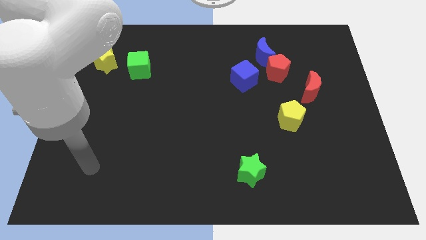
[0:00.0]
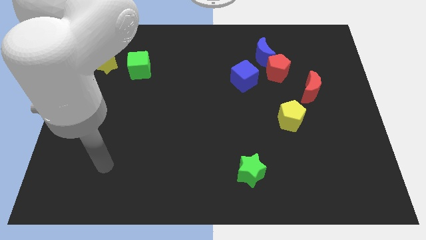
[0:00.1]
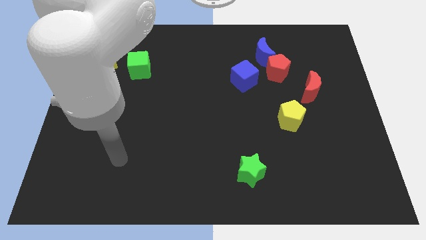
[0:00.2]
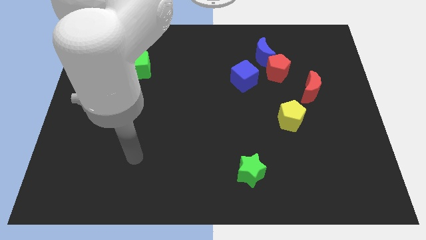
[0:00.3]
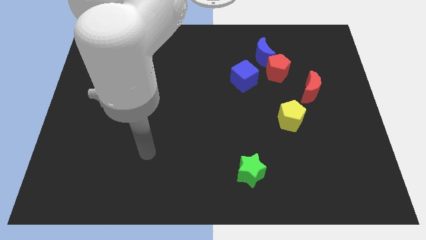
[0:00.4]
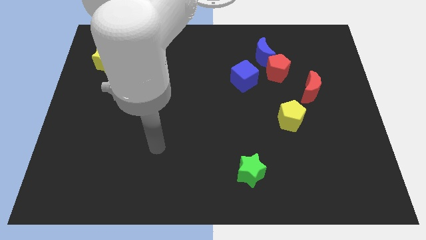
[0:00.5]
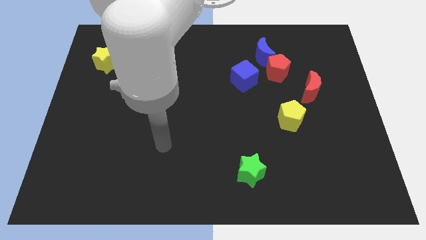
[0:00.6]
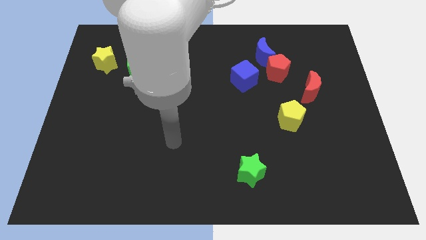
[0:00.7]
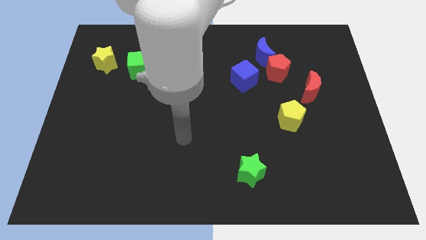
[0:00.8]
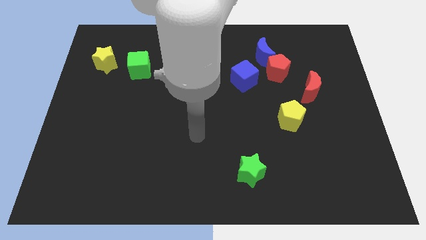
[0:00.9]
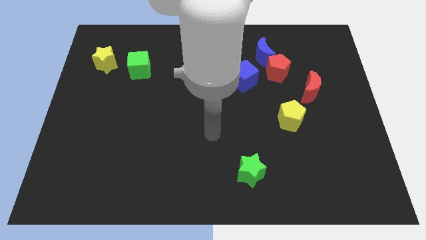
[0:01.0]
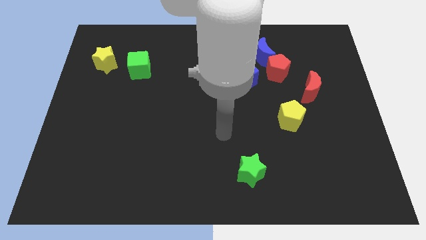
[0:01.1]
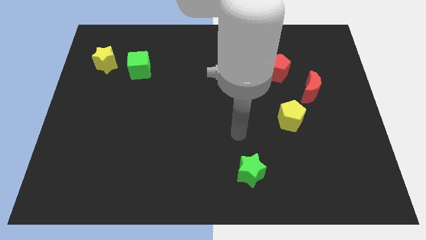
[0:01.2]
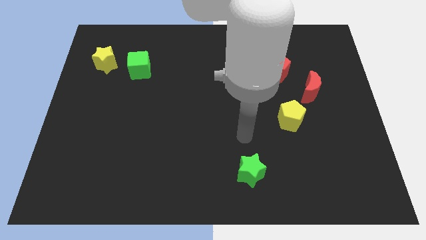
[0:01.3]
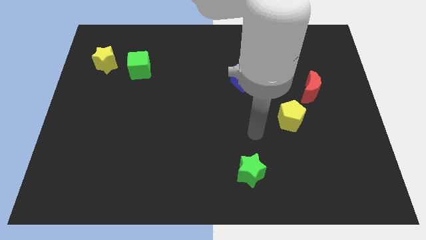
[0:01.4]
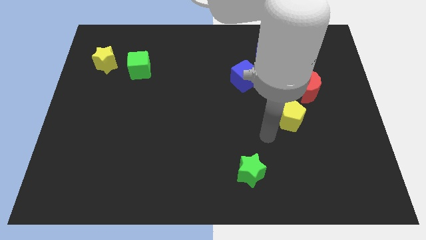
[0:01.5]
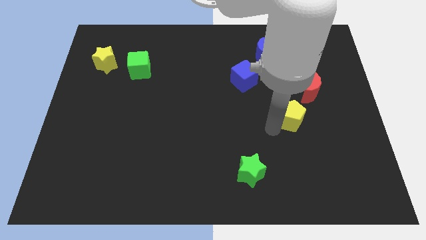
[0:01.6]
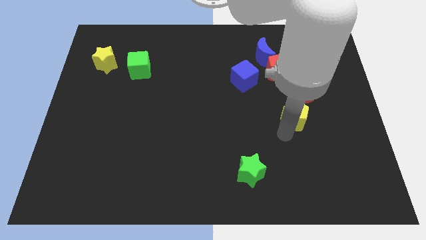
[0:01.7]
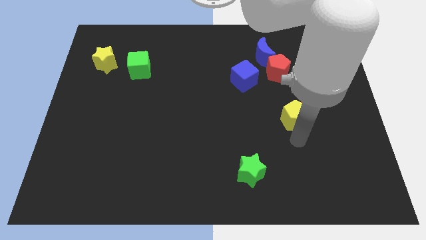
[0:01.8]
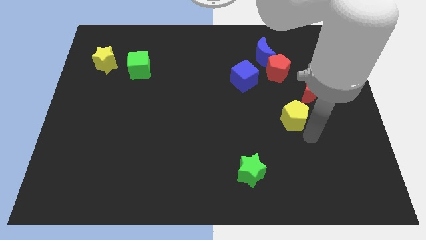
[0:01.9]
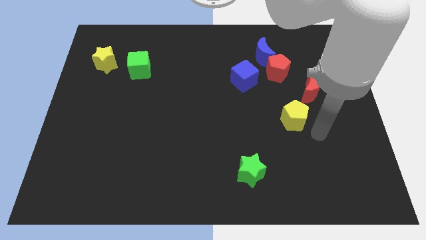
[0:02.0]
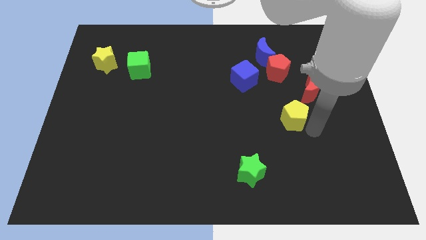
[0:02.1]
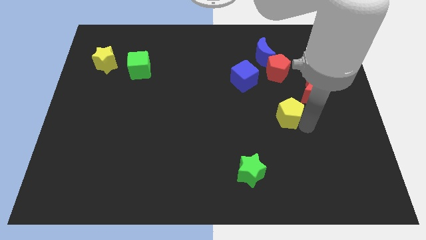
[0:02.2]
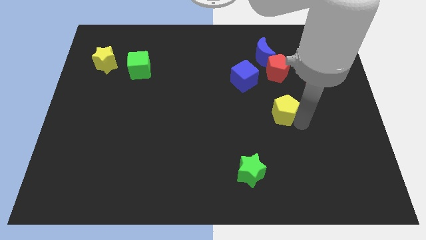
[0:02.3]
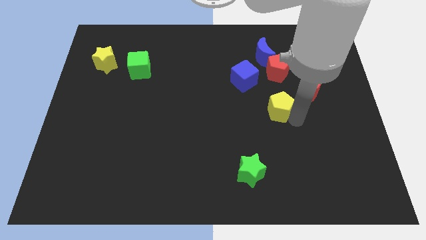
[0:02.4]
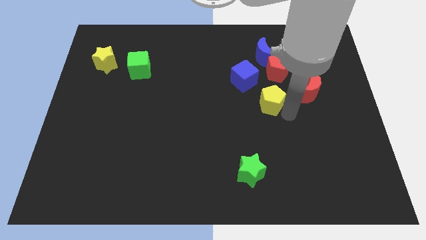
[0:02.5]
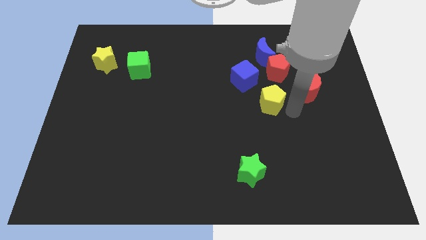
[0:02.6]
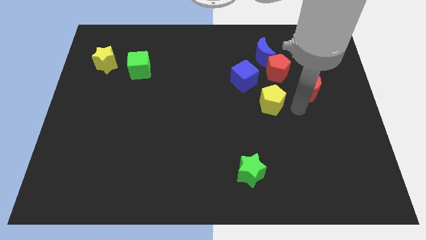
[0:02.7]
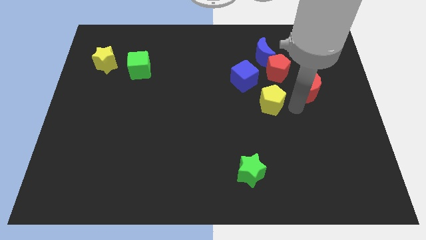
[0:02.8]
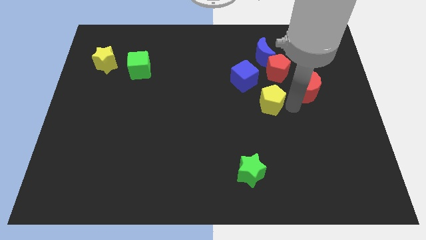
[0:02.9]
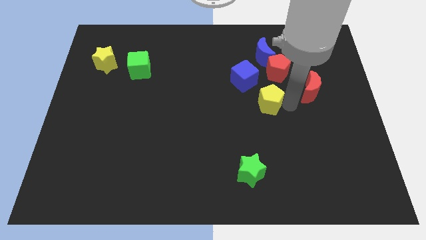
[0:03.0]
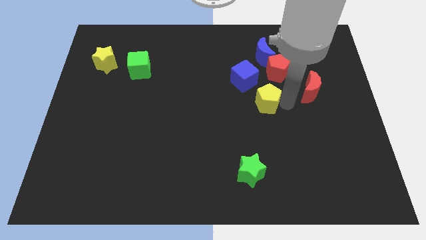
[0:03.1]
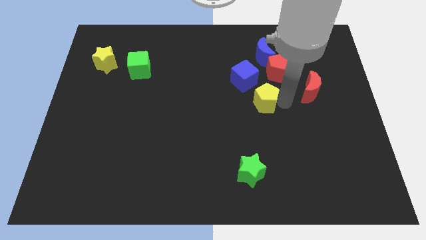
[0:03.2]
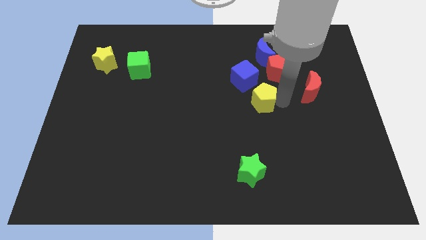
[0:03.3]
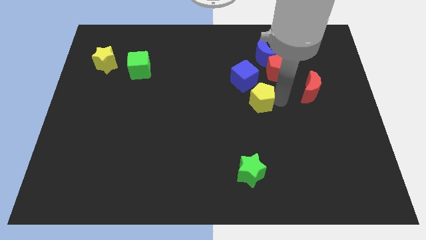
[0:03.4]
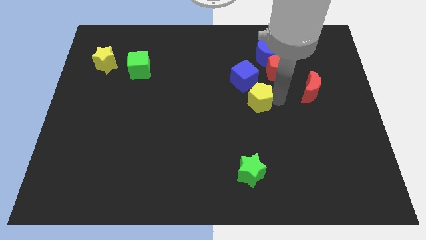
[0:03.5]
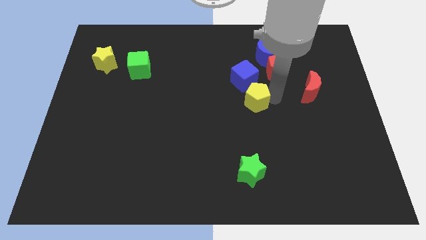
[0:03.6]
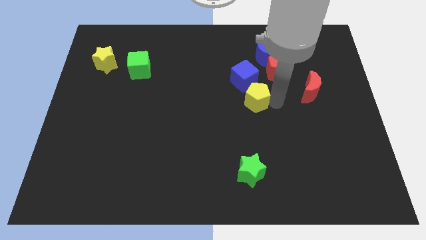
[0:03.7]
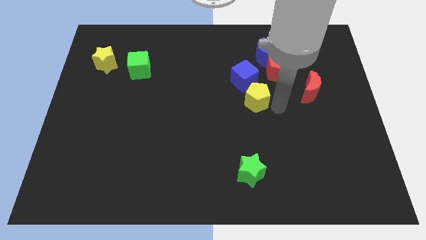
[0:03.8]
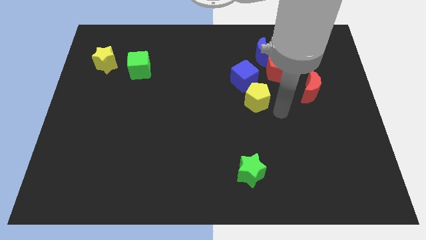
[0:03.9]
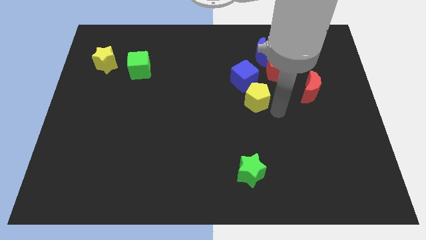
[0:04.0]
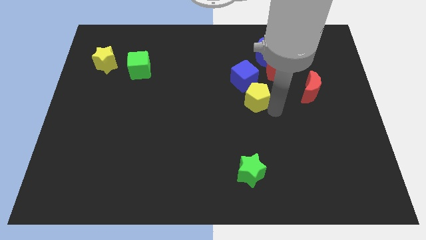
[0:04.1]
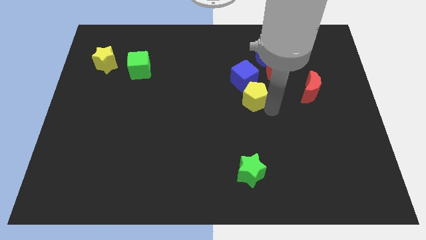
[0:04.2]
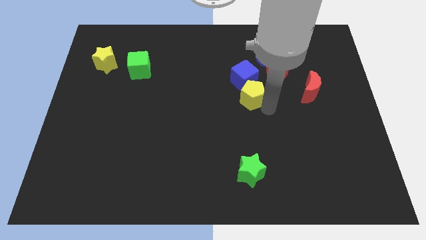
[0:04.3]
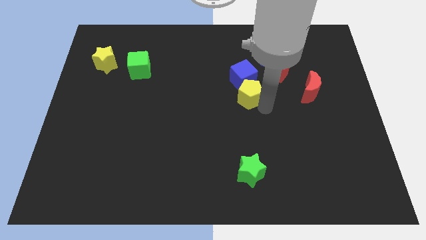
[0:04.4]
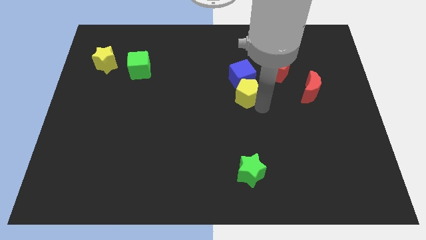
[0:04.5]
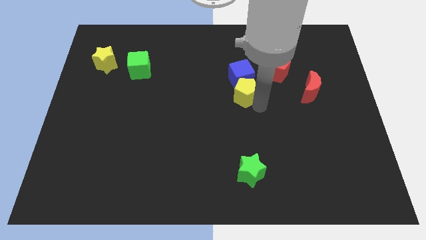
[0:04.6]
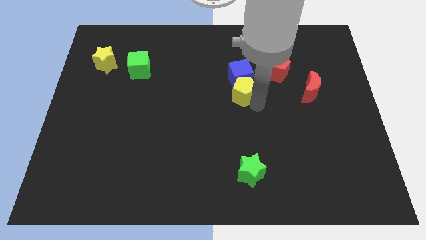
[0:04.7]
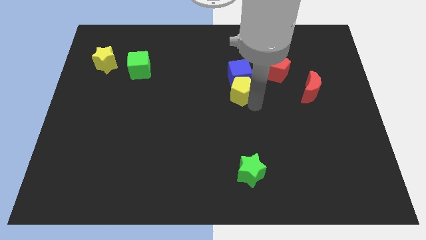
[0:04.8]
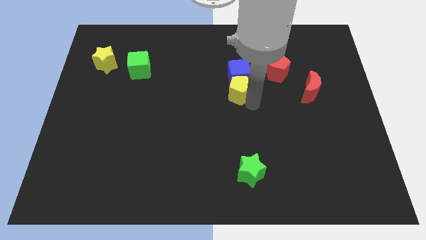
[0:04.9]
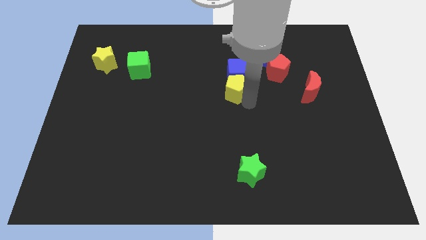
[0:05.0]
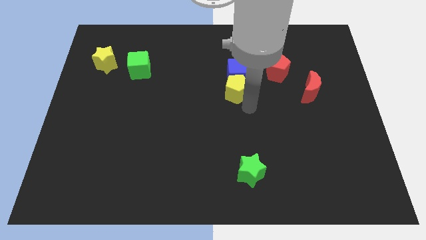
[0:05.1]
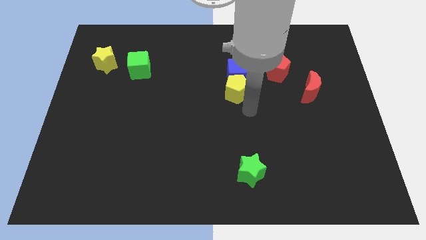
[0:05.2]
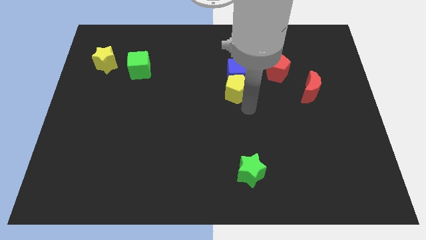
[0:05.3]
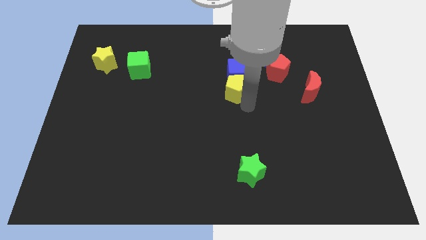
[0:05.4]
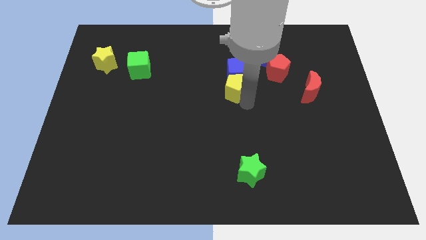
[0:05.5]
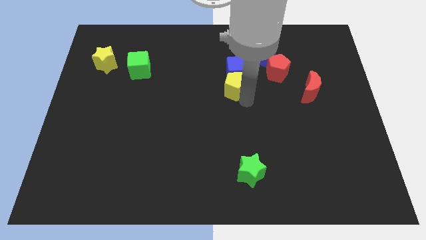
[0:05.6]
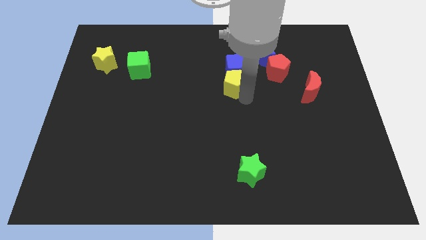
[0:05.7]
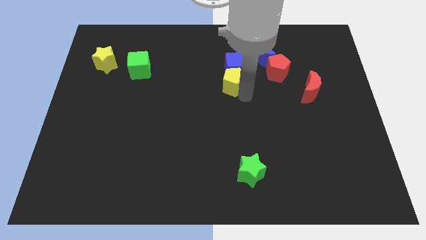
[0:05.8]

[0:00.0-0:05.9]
move the yellow pentagon left of the red pentagon

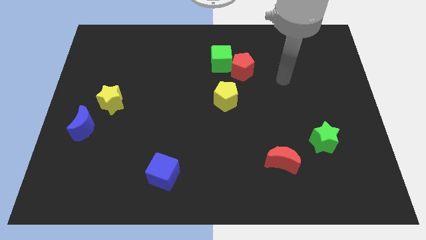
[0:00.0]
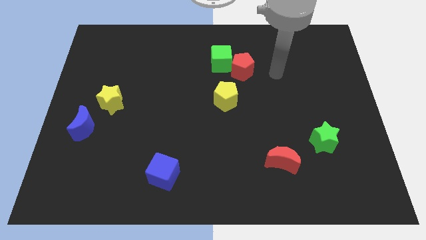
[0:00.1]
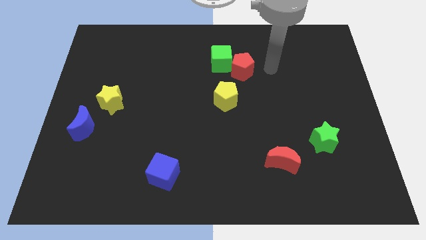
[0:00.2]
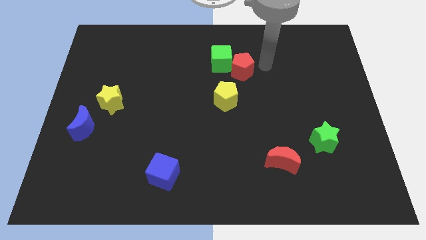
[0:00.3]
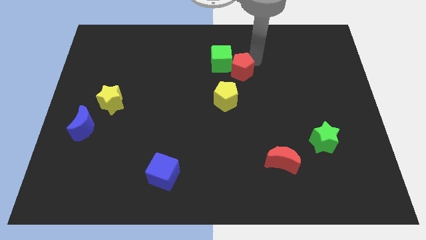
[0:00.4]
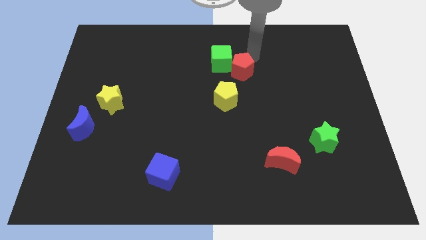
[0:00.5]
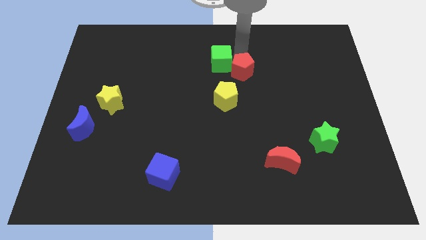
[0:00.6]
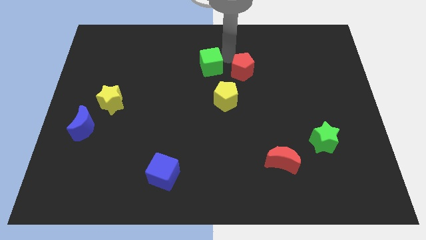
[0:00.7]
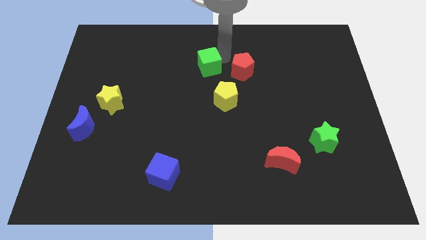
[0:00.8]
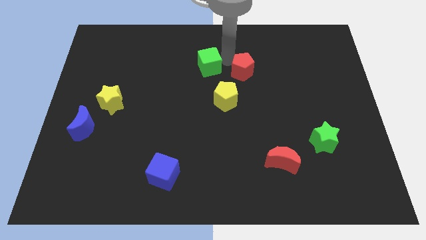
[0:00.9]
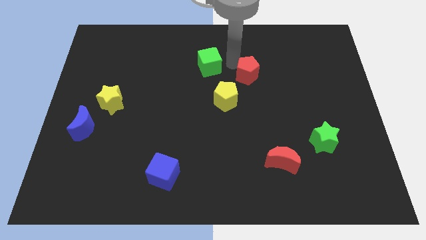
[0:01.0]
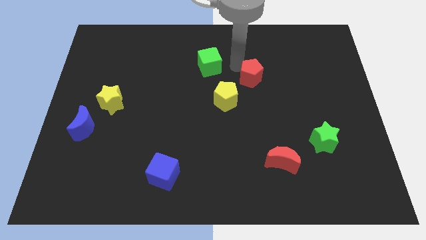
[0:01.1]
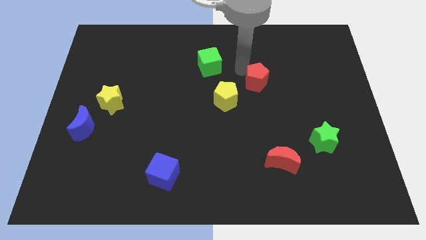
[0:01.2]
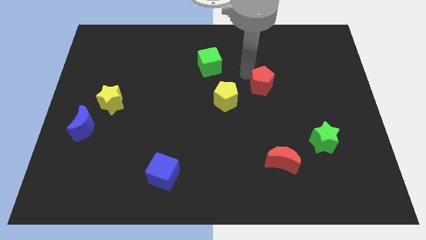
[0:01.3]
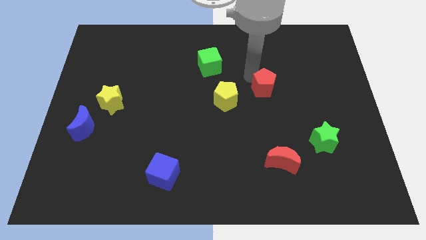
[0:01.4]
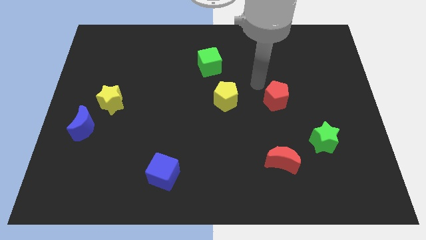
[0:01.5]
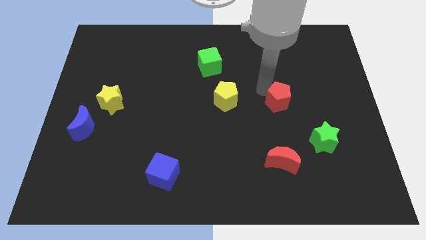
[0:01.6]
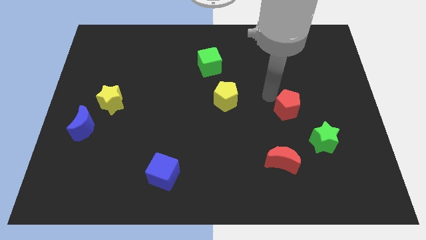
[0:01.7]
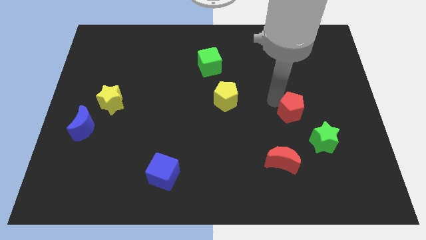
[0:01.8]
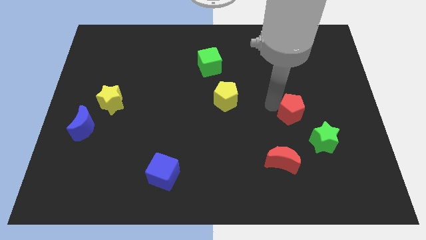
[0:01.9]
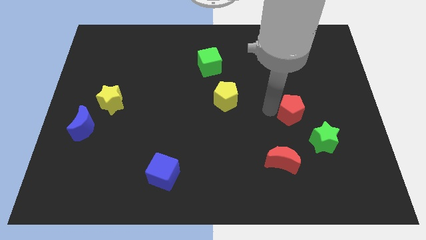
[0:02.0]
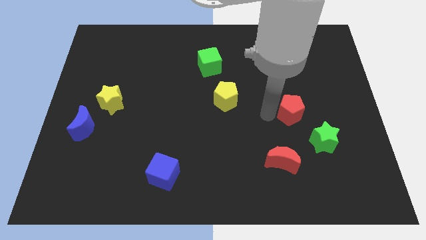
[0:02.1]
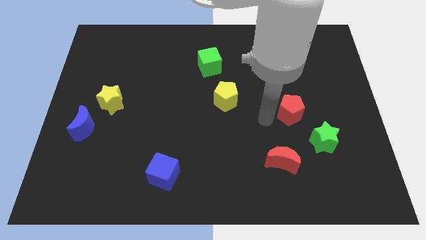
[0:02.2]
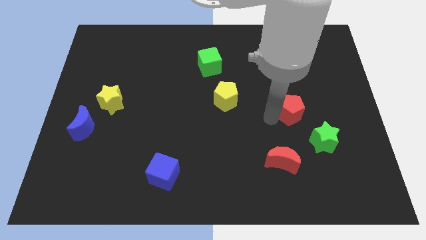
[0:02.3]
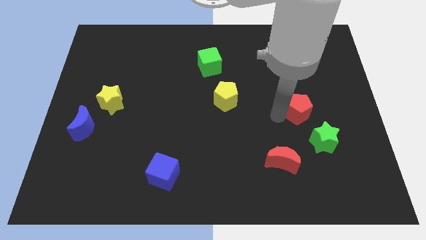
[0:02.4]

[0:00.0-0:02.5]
put the red pentagon to the top of the green star

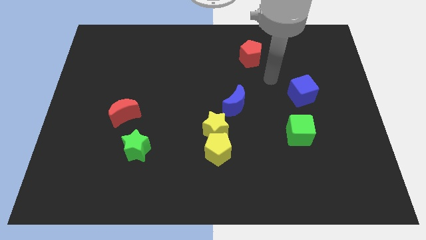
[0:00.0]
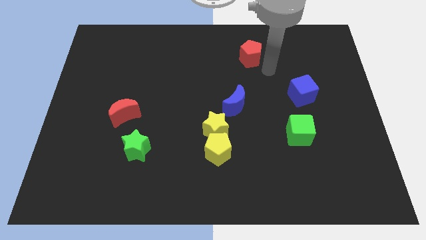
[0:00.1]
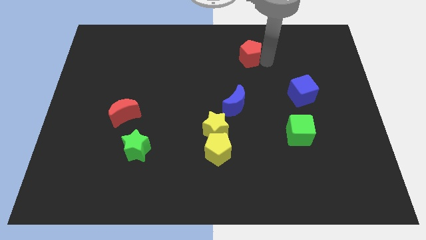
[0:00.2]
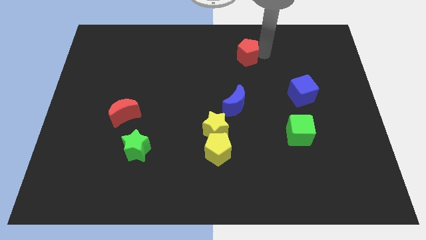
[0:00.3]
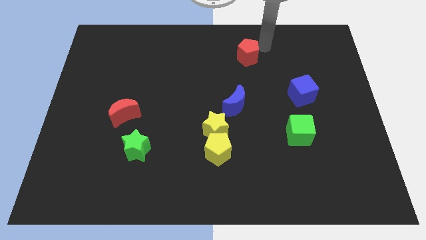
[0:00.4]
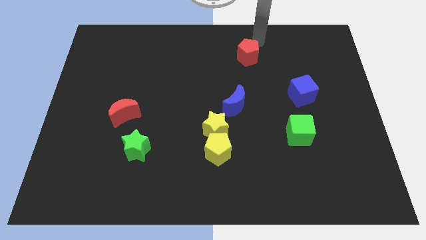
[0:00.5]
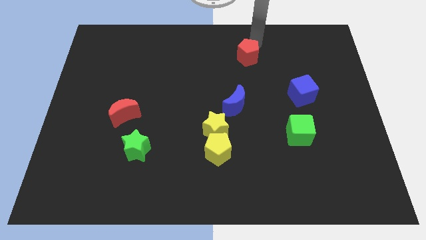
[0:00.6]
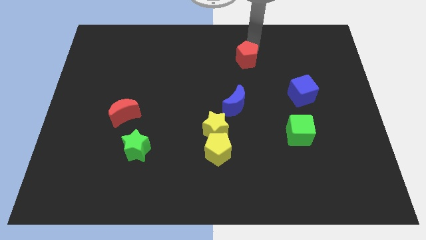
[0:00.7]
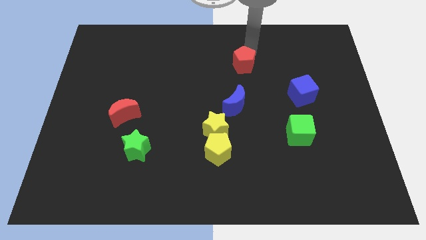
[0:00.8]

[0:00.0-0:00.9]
push the red pentagon above the blue moon
